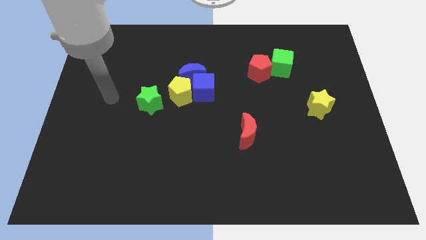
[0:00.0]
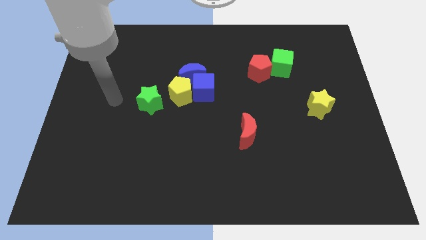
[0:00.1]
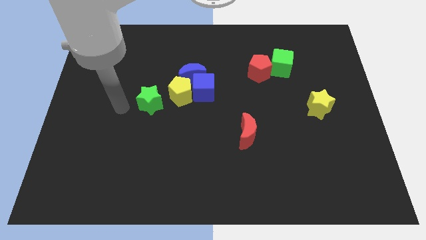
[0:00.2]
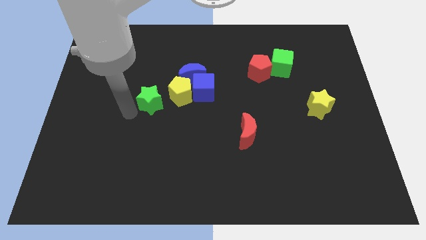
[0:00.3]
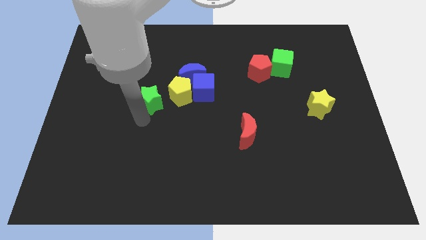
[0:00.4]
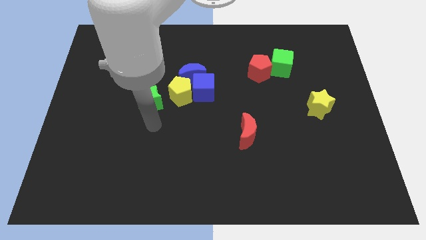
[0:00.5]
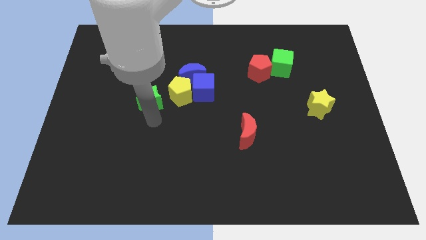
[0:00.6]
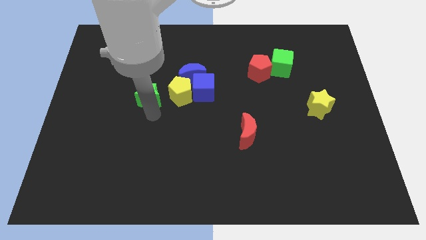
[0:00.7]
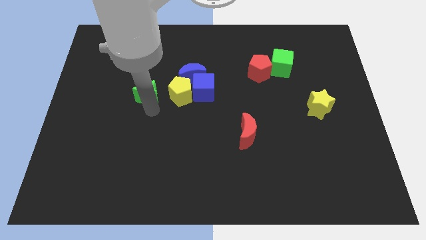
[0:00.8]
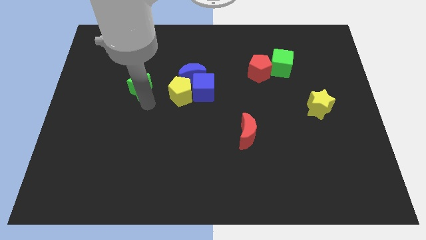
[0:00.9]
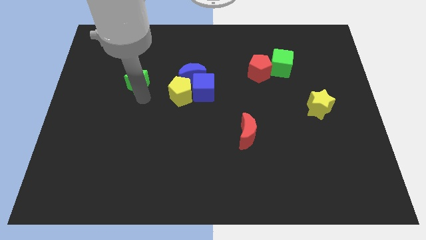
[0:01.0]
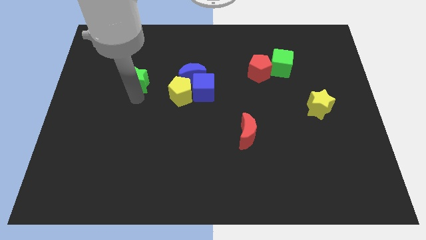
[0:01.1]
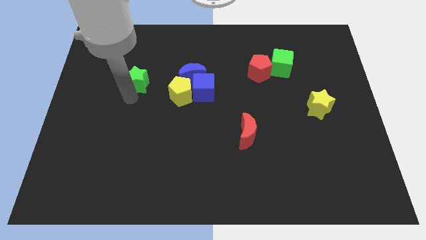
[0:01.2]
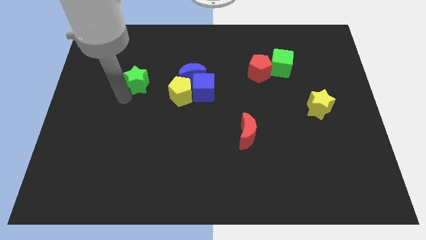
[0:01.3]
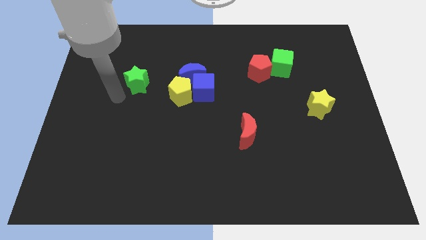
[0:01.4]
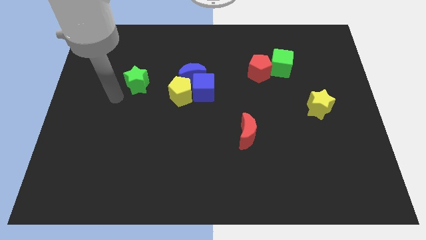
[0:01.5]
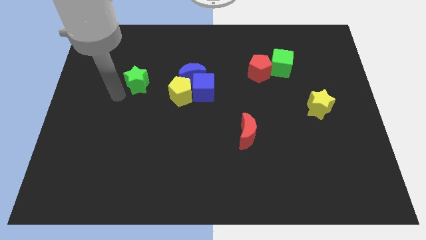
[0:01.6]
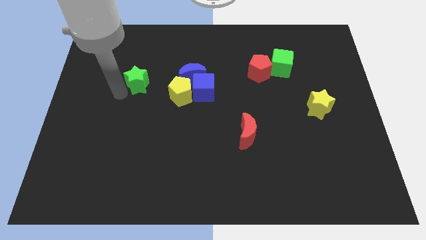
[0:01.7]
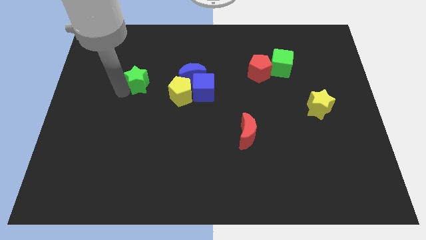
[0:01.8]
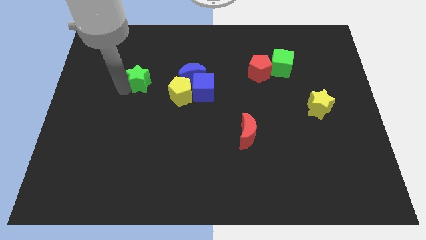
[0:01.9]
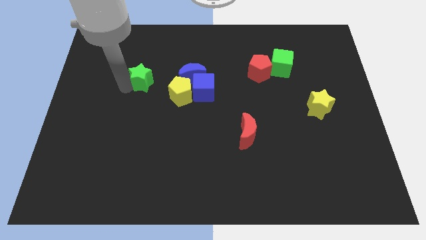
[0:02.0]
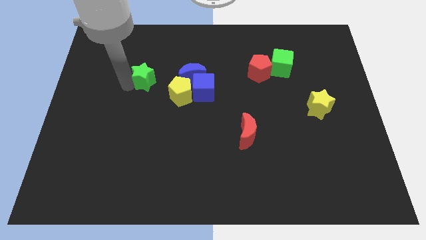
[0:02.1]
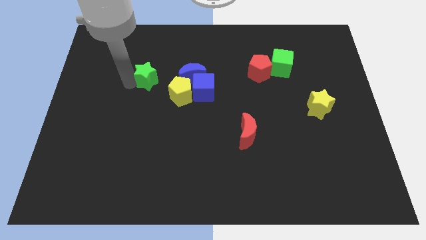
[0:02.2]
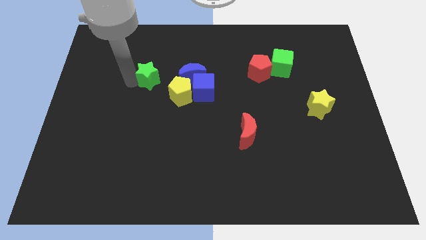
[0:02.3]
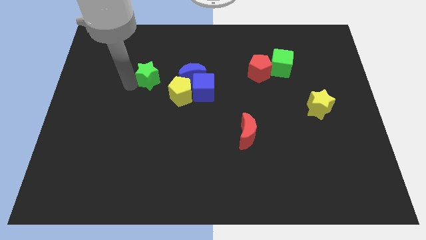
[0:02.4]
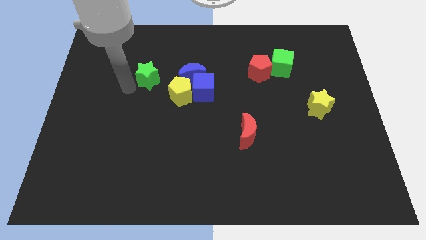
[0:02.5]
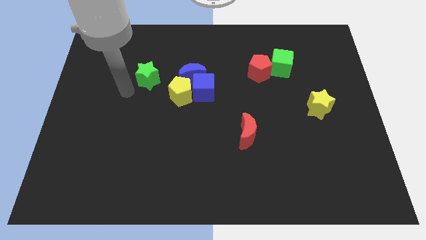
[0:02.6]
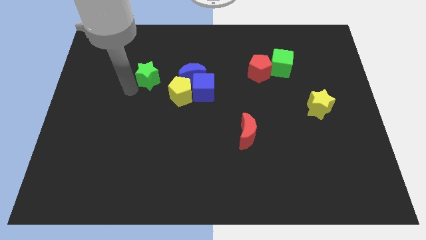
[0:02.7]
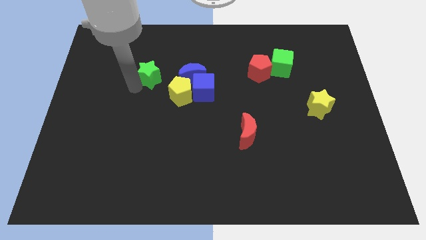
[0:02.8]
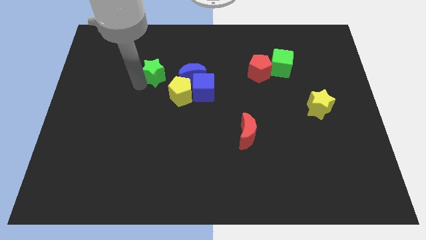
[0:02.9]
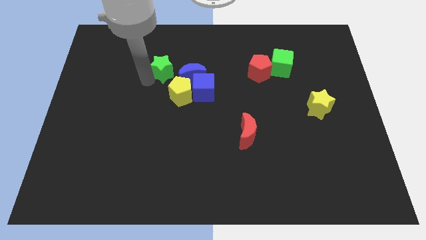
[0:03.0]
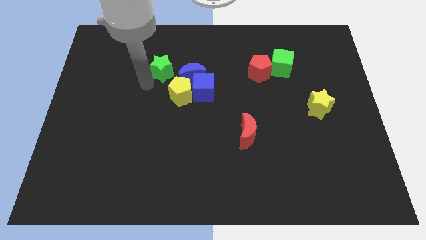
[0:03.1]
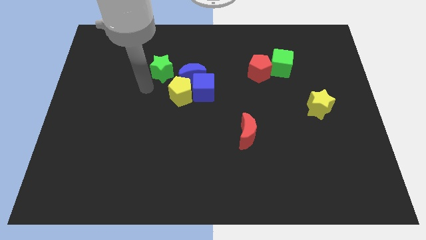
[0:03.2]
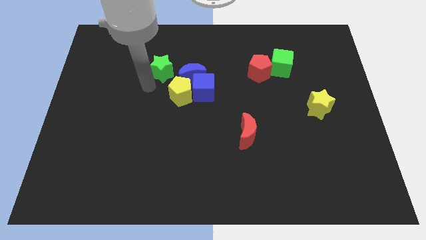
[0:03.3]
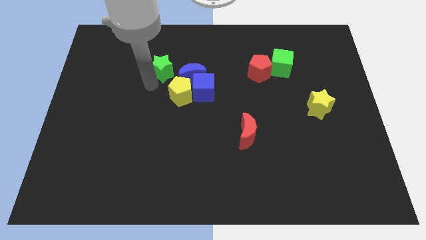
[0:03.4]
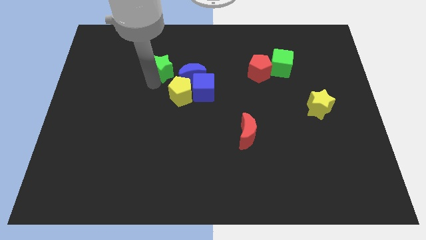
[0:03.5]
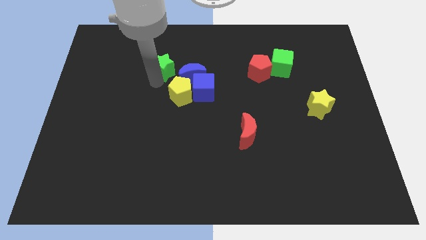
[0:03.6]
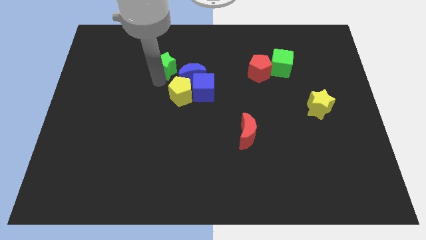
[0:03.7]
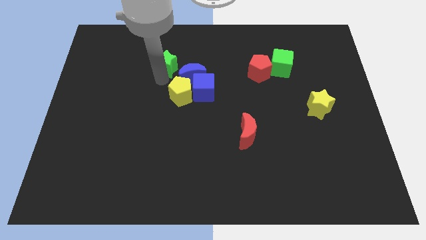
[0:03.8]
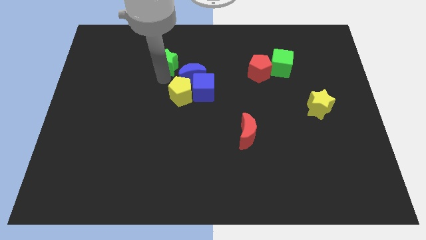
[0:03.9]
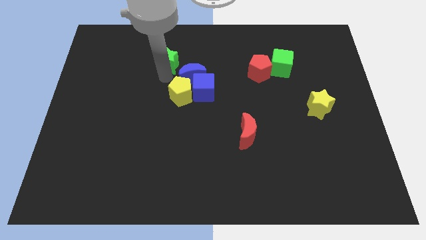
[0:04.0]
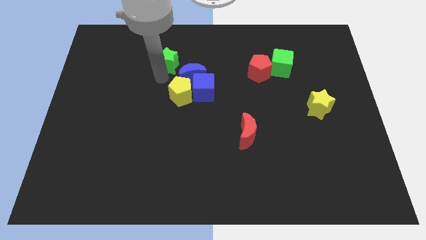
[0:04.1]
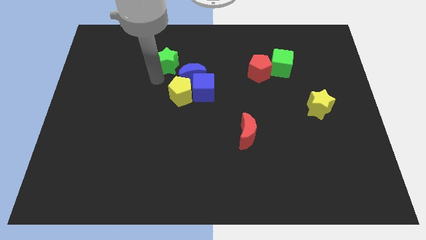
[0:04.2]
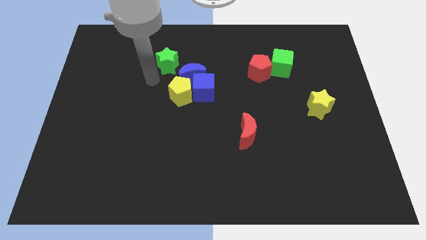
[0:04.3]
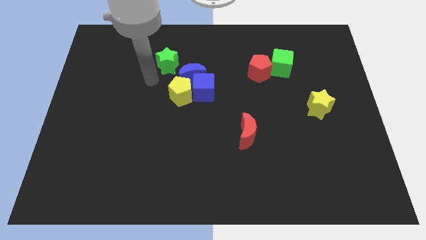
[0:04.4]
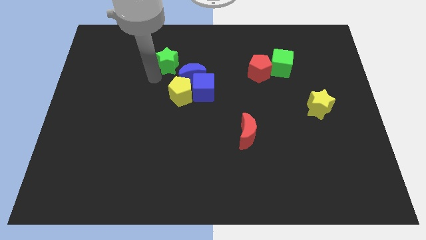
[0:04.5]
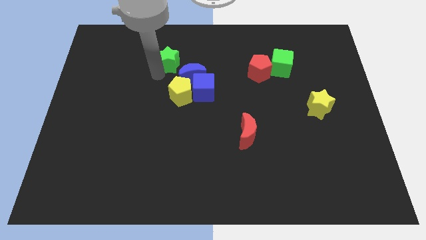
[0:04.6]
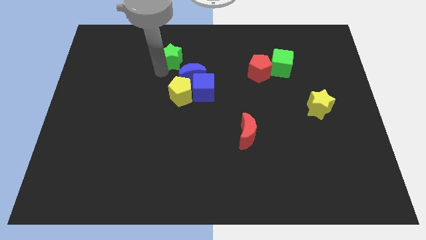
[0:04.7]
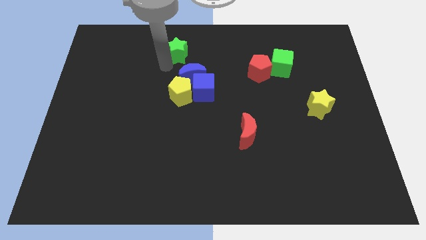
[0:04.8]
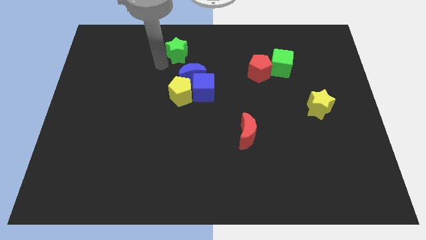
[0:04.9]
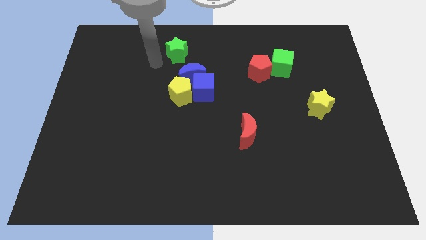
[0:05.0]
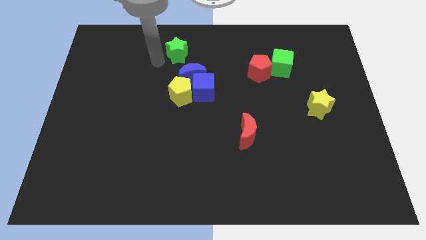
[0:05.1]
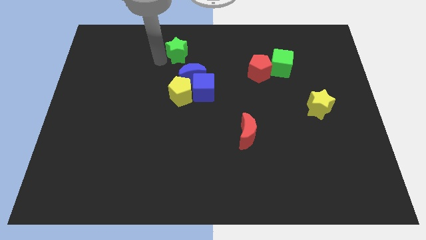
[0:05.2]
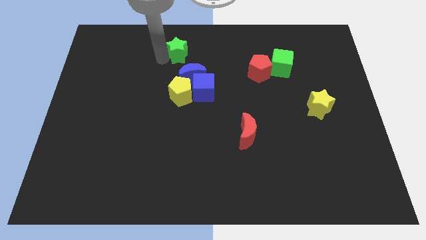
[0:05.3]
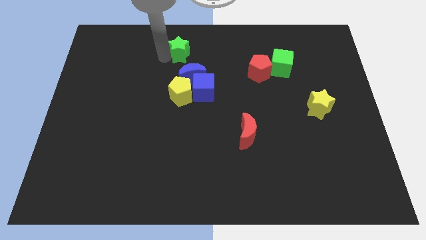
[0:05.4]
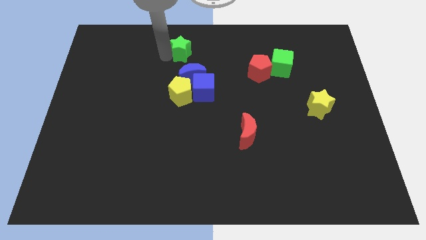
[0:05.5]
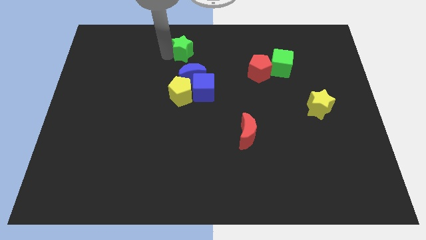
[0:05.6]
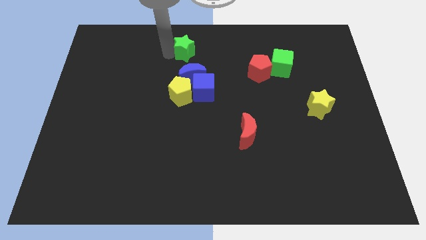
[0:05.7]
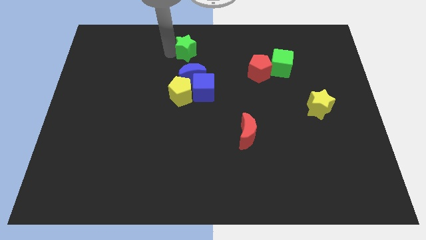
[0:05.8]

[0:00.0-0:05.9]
move the green star to the top side
